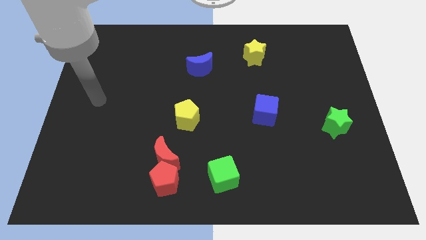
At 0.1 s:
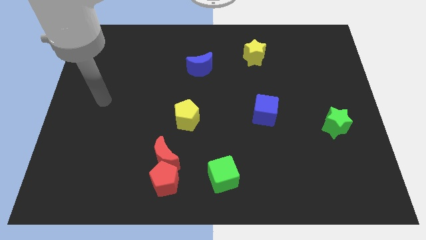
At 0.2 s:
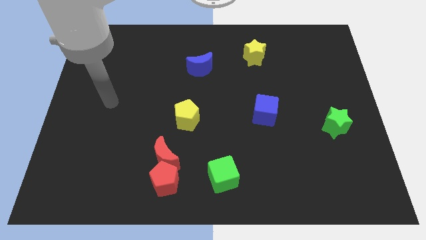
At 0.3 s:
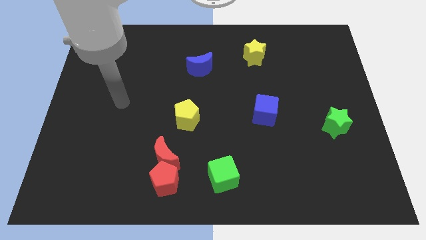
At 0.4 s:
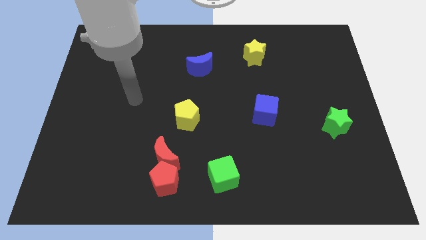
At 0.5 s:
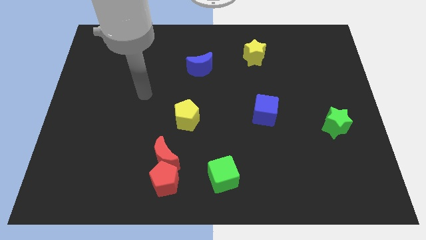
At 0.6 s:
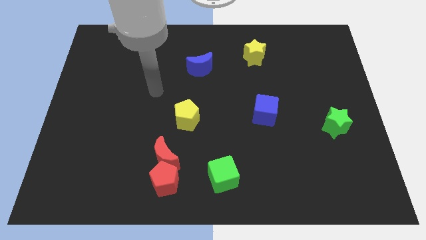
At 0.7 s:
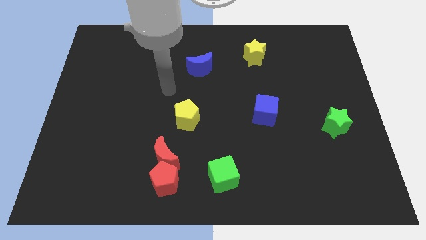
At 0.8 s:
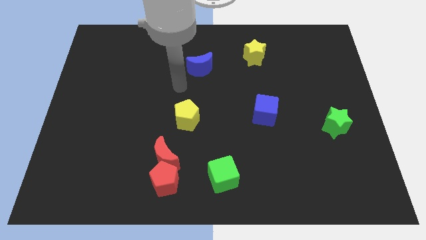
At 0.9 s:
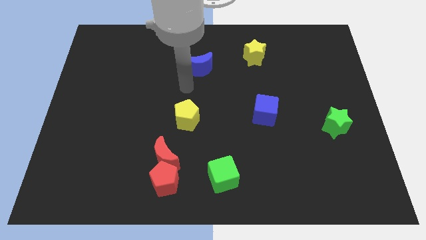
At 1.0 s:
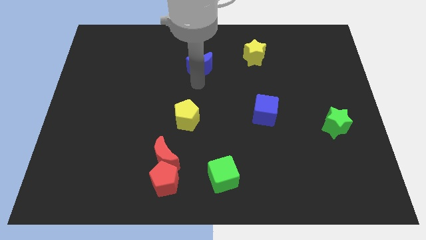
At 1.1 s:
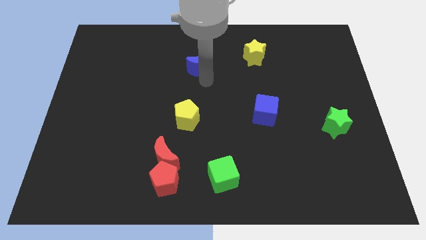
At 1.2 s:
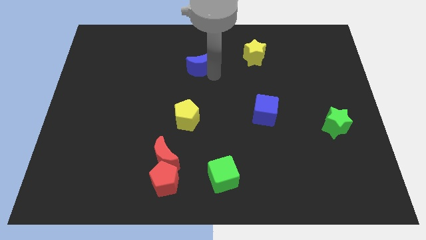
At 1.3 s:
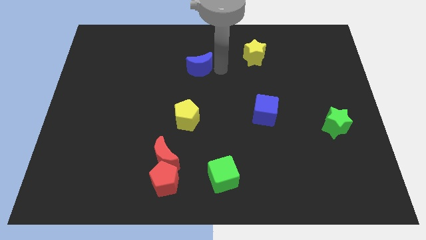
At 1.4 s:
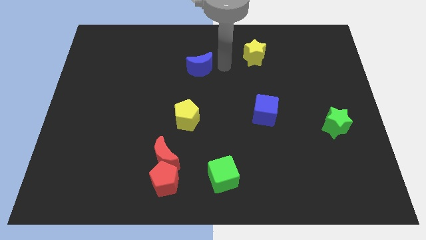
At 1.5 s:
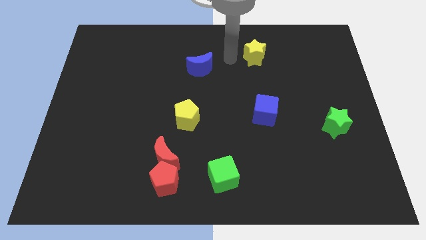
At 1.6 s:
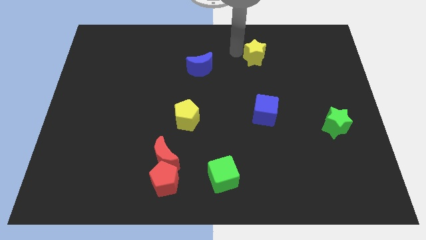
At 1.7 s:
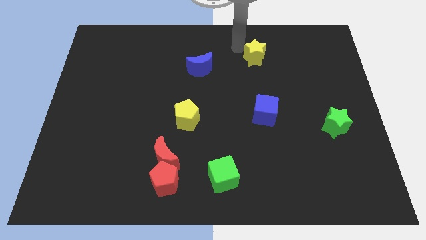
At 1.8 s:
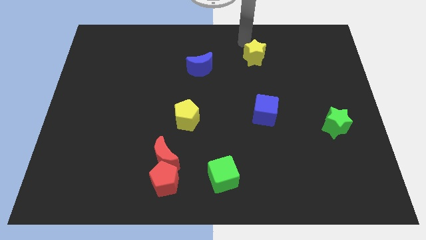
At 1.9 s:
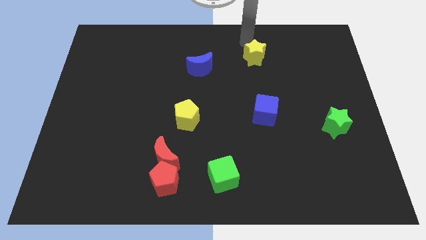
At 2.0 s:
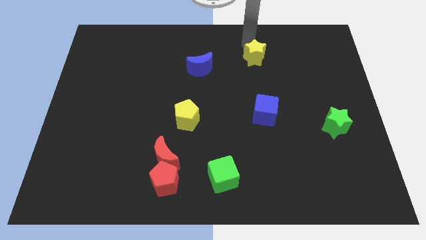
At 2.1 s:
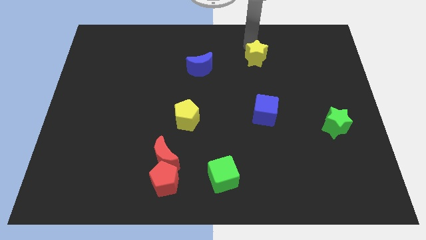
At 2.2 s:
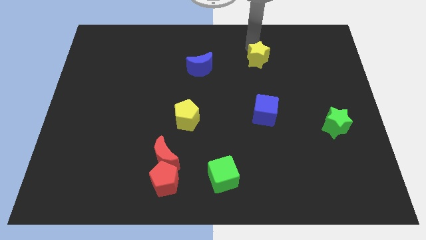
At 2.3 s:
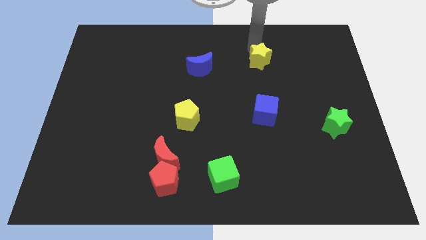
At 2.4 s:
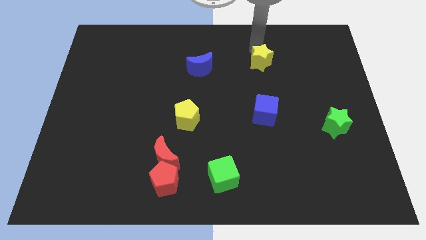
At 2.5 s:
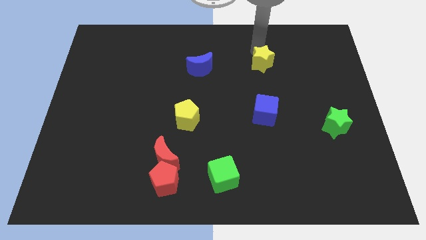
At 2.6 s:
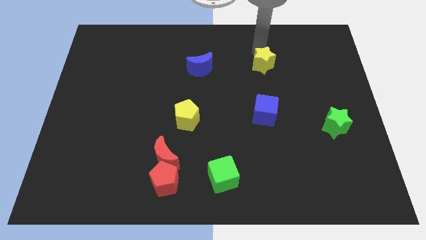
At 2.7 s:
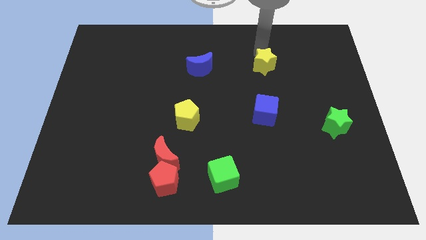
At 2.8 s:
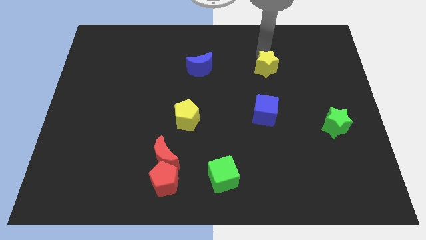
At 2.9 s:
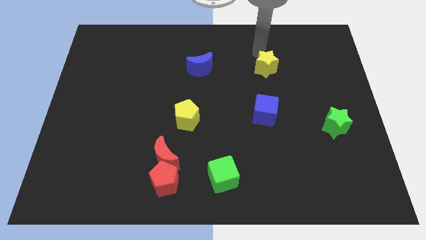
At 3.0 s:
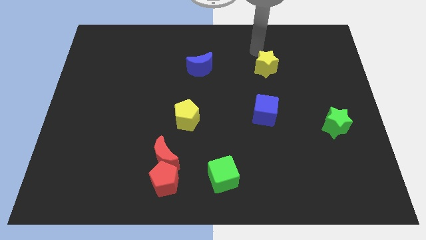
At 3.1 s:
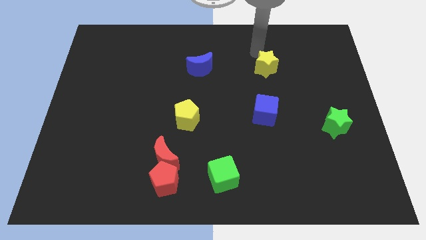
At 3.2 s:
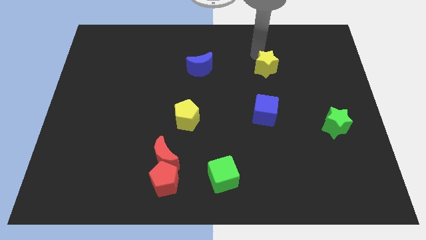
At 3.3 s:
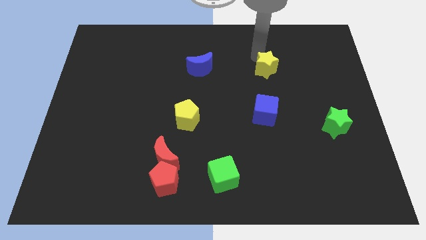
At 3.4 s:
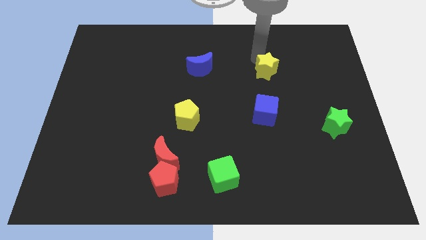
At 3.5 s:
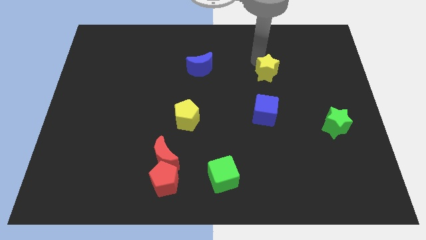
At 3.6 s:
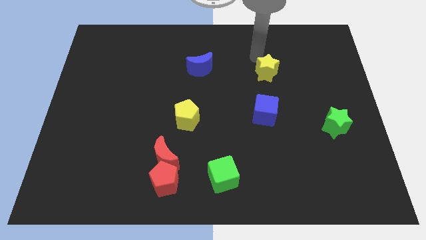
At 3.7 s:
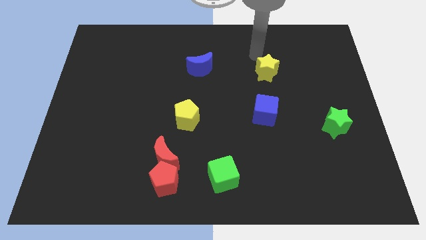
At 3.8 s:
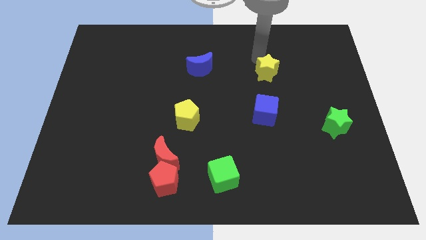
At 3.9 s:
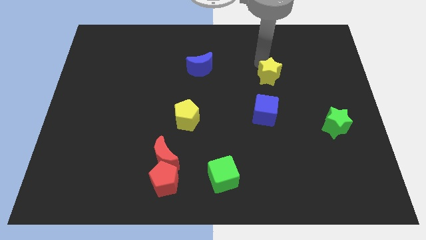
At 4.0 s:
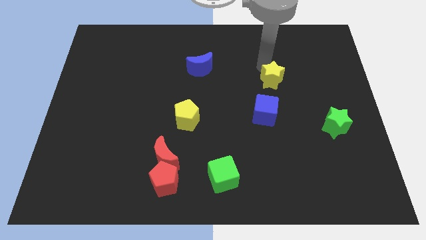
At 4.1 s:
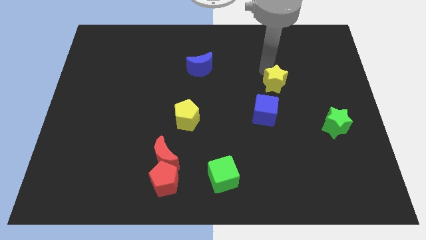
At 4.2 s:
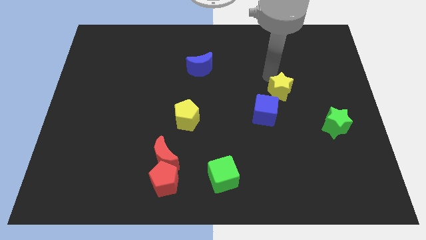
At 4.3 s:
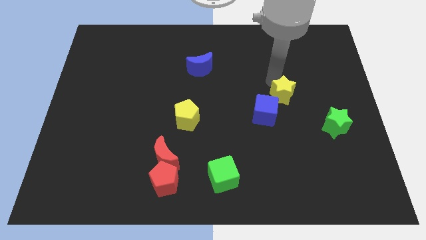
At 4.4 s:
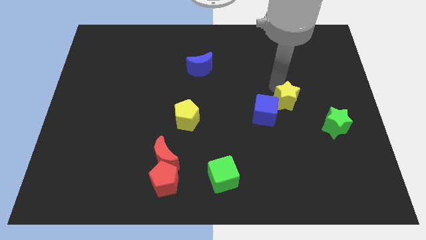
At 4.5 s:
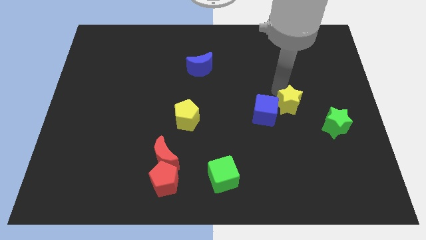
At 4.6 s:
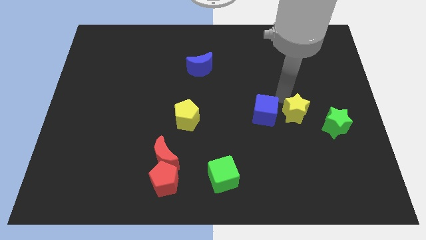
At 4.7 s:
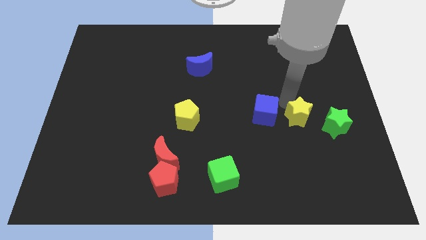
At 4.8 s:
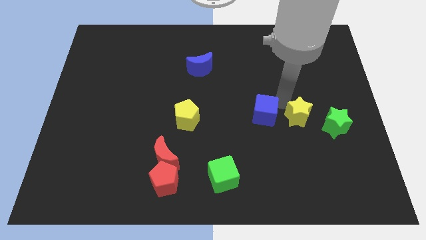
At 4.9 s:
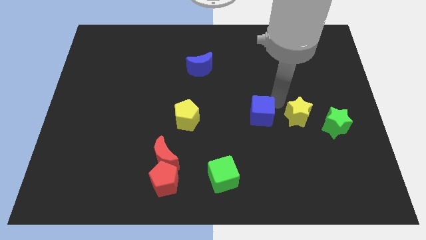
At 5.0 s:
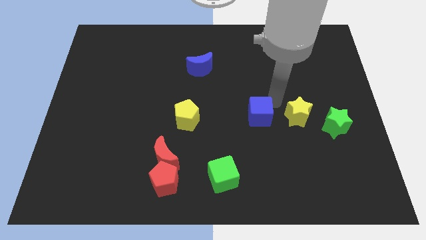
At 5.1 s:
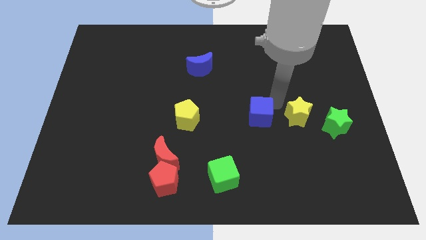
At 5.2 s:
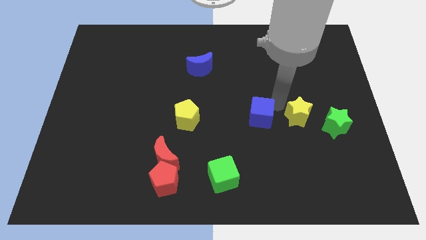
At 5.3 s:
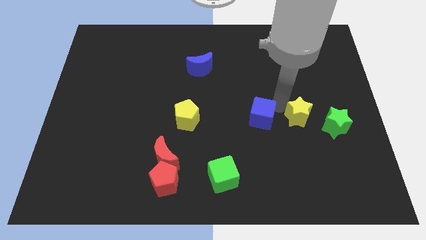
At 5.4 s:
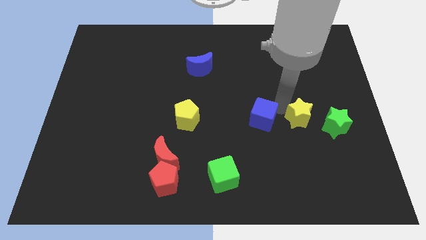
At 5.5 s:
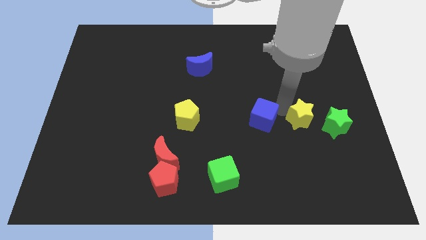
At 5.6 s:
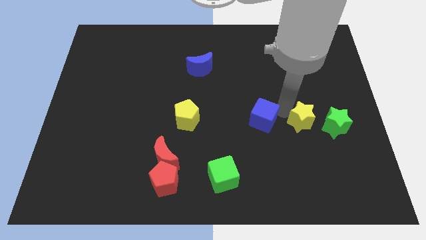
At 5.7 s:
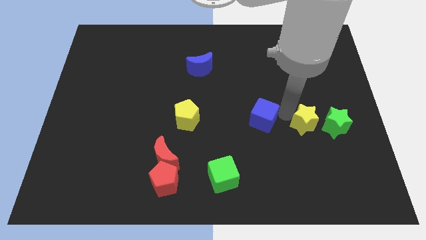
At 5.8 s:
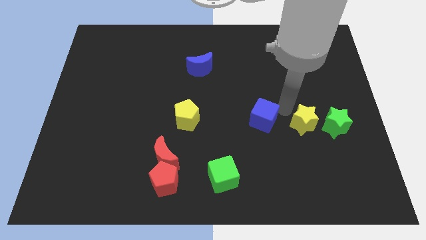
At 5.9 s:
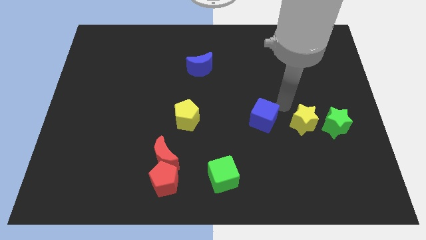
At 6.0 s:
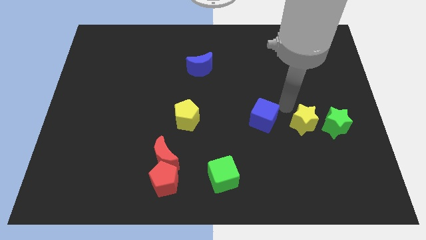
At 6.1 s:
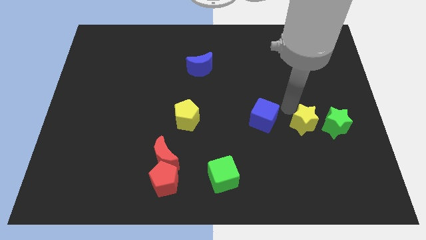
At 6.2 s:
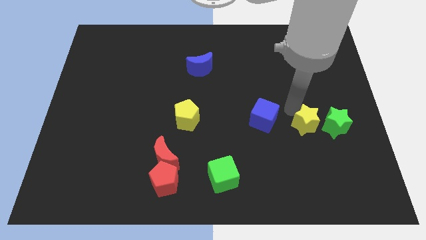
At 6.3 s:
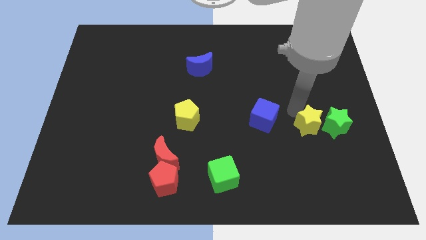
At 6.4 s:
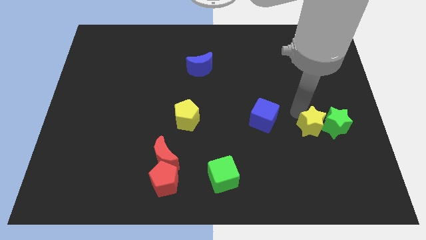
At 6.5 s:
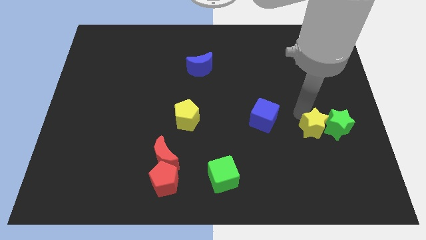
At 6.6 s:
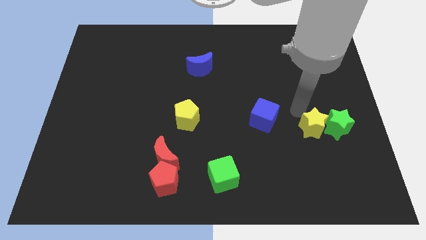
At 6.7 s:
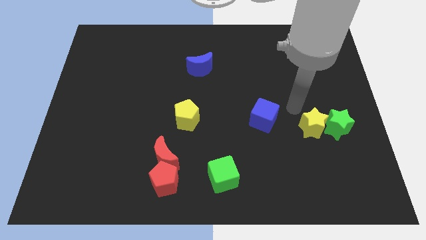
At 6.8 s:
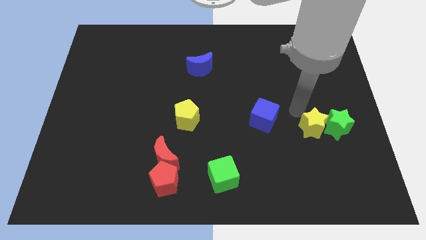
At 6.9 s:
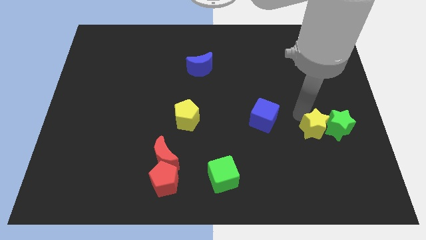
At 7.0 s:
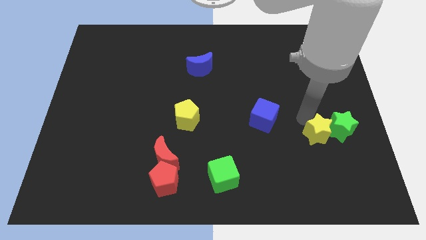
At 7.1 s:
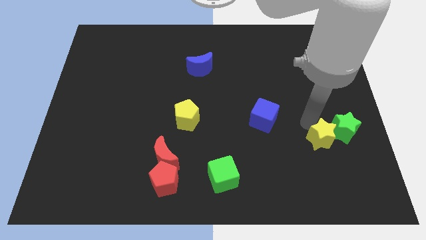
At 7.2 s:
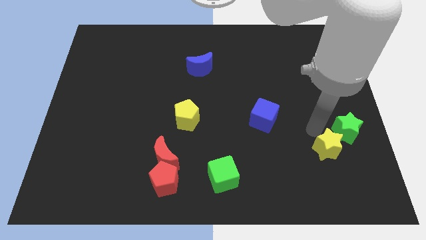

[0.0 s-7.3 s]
move the yellow star to the bottom of the green star

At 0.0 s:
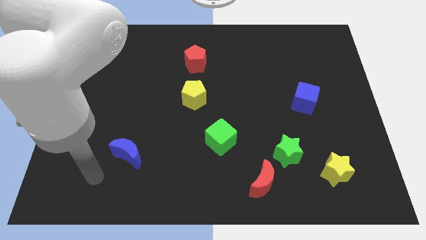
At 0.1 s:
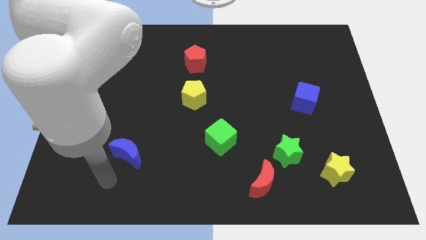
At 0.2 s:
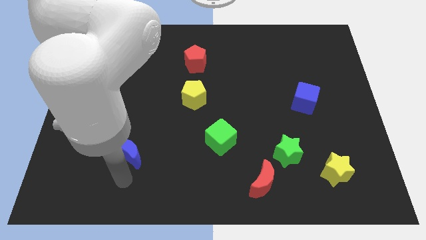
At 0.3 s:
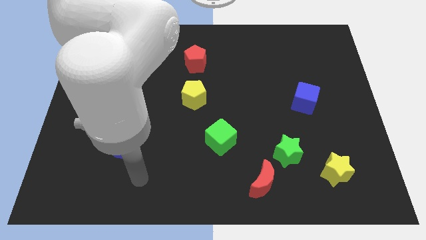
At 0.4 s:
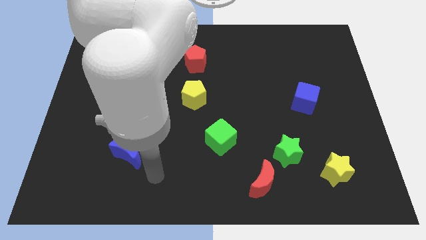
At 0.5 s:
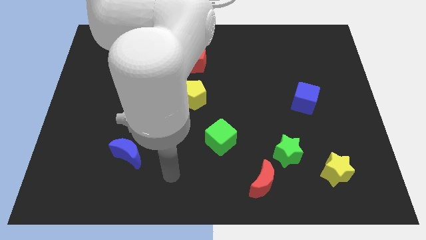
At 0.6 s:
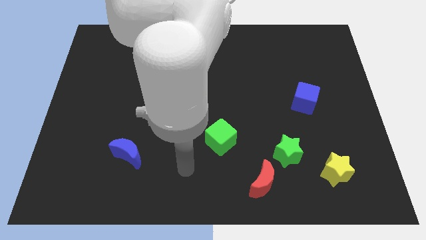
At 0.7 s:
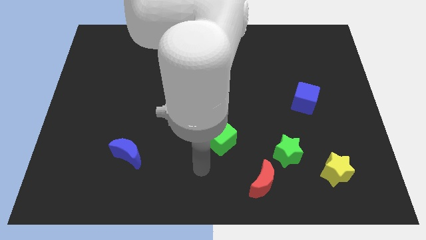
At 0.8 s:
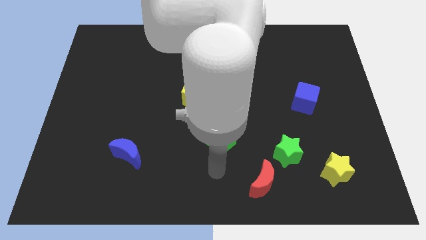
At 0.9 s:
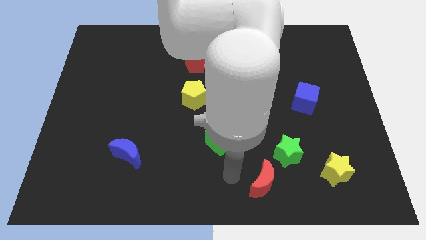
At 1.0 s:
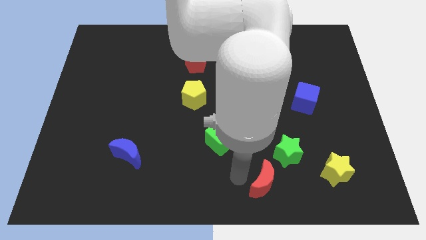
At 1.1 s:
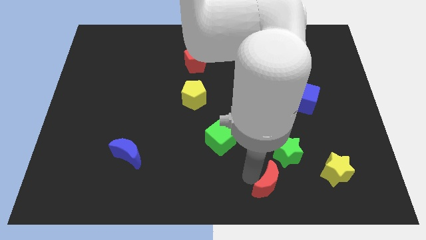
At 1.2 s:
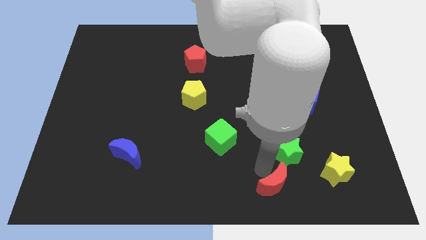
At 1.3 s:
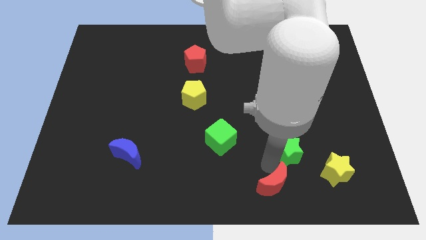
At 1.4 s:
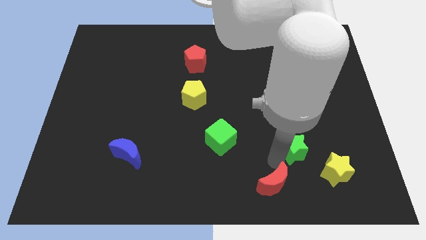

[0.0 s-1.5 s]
put the green star to the bottom of the blue cube
